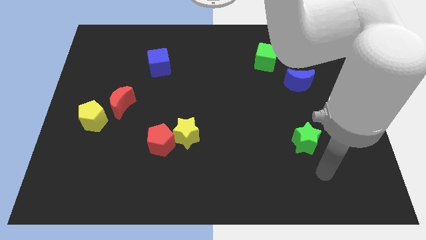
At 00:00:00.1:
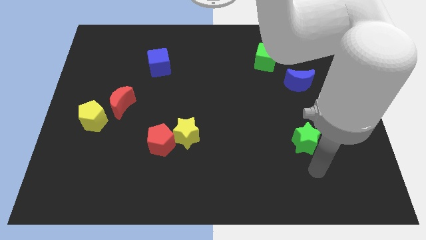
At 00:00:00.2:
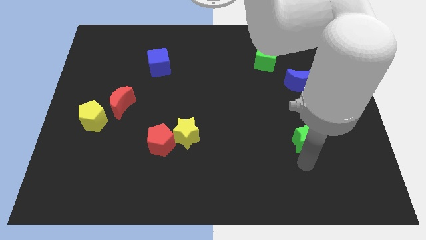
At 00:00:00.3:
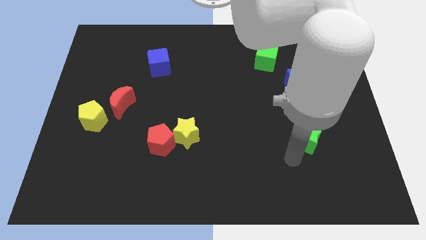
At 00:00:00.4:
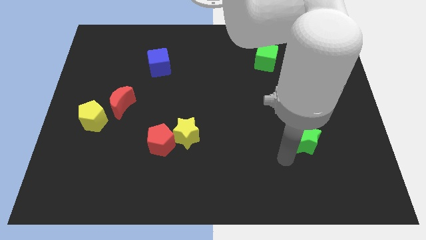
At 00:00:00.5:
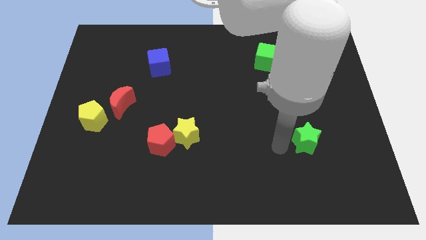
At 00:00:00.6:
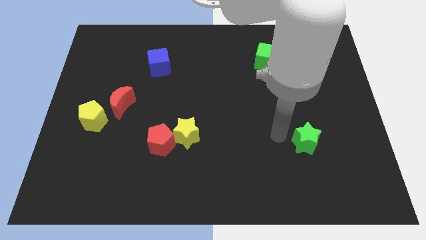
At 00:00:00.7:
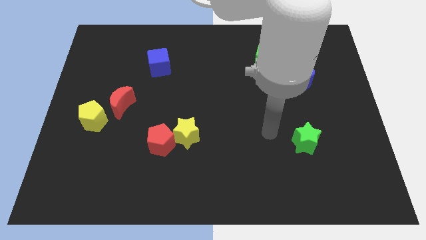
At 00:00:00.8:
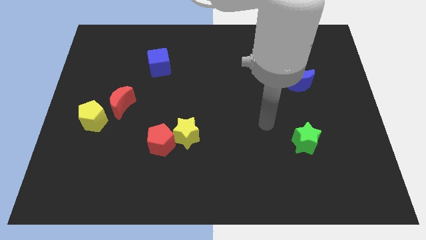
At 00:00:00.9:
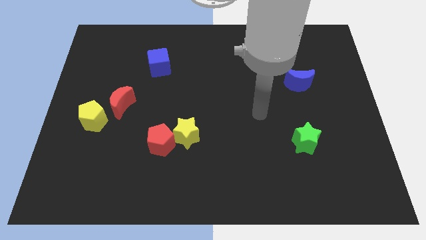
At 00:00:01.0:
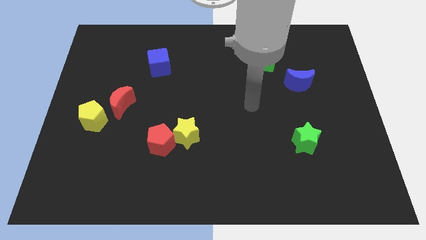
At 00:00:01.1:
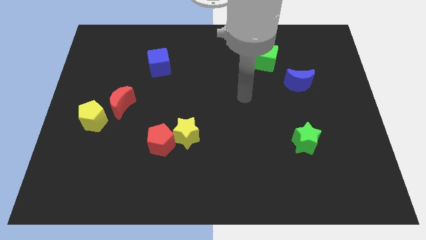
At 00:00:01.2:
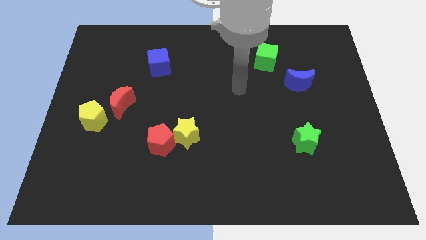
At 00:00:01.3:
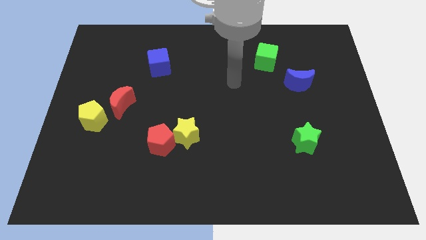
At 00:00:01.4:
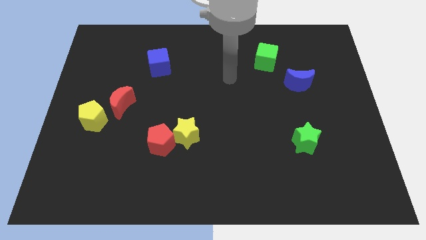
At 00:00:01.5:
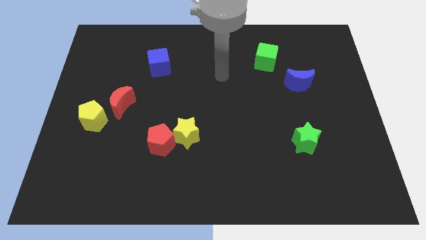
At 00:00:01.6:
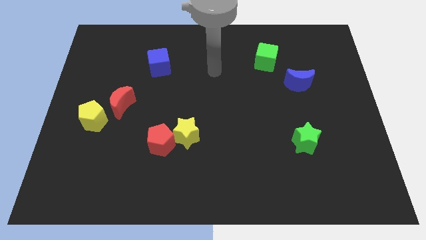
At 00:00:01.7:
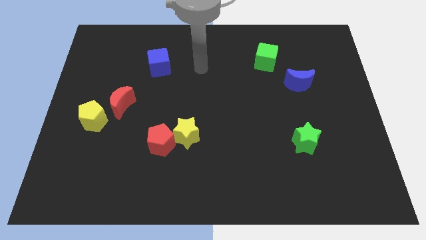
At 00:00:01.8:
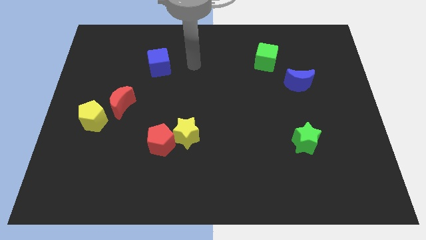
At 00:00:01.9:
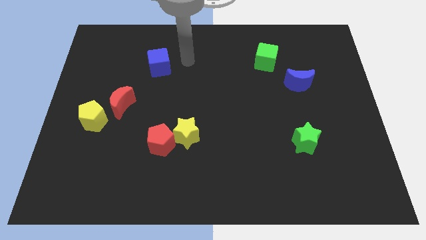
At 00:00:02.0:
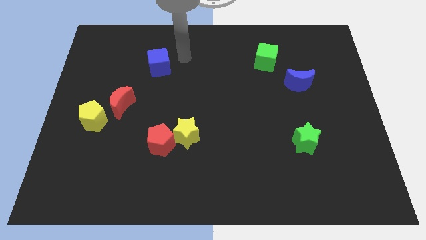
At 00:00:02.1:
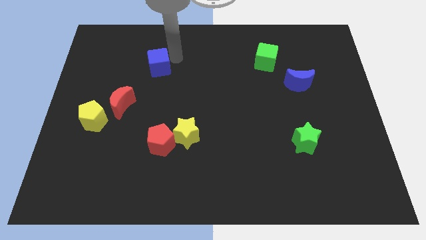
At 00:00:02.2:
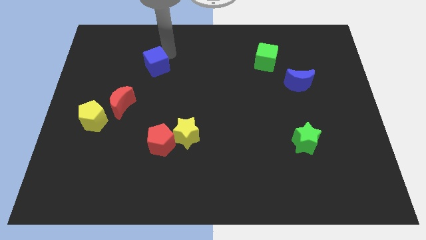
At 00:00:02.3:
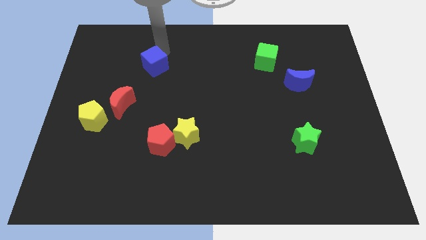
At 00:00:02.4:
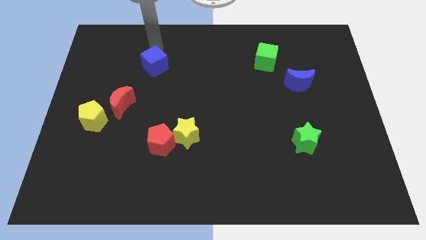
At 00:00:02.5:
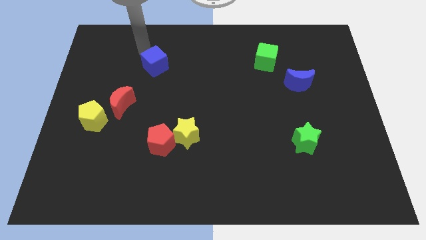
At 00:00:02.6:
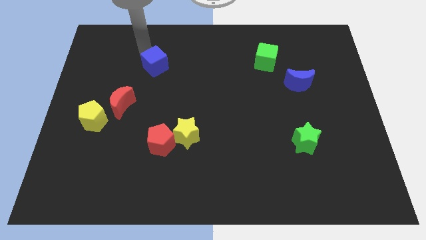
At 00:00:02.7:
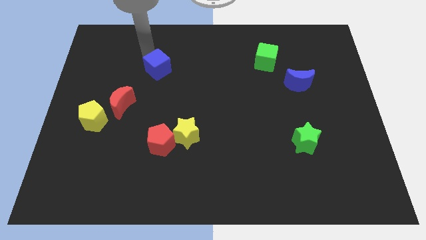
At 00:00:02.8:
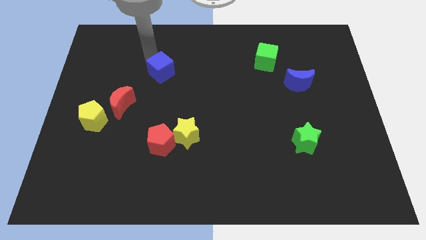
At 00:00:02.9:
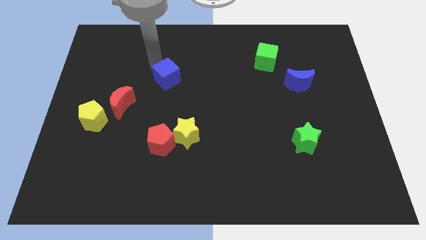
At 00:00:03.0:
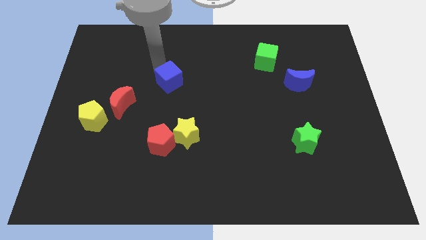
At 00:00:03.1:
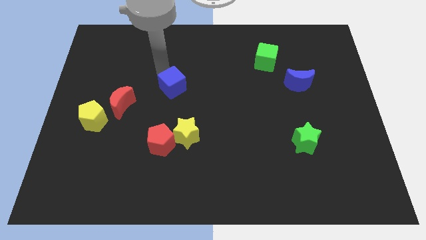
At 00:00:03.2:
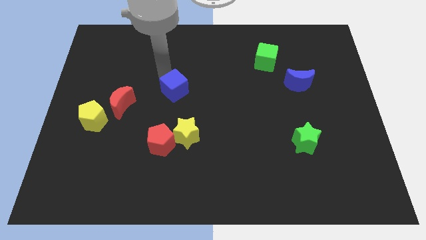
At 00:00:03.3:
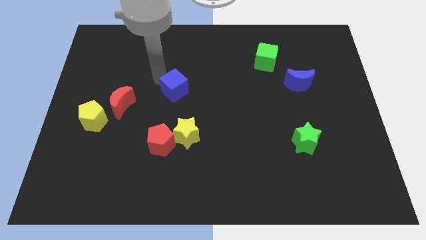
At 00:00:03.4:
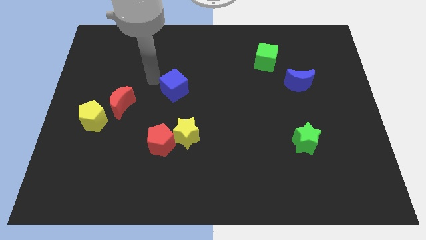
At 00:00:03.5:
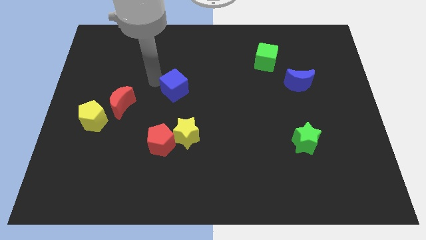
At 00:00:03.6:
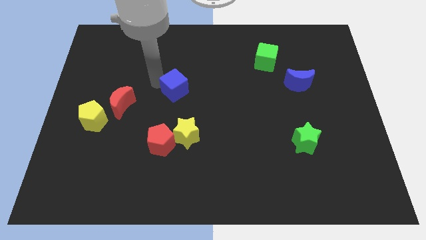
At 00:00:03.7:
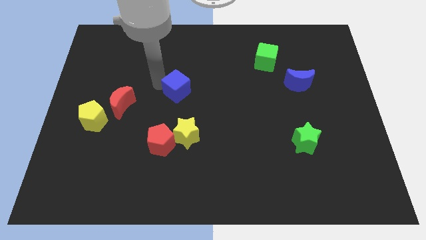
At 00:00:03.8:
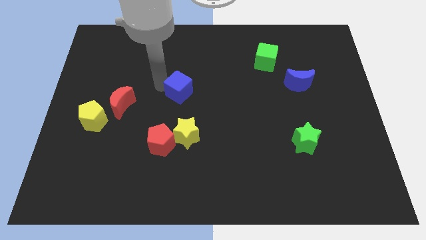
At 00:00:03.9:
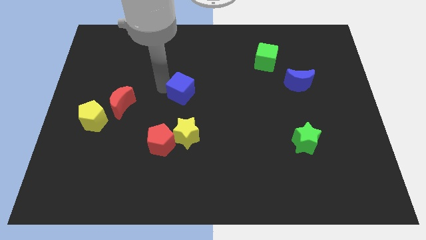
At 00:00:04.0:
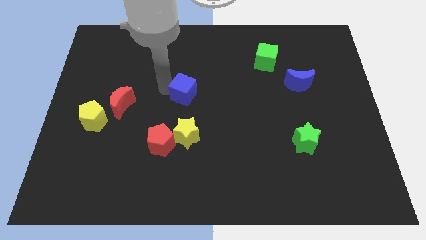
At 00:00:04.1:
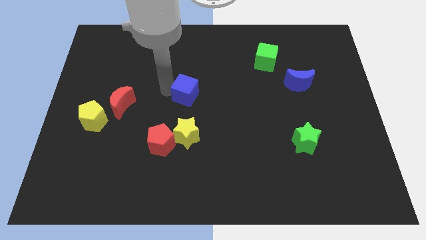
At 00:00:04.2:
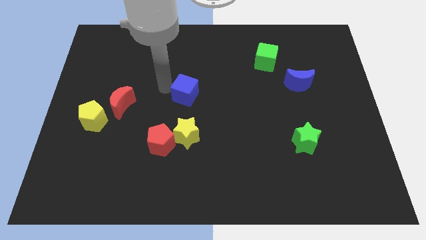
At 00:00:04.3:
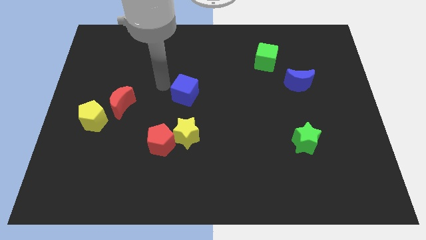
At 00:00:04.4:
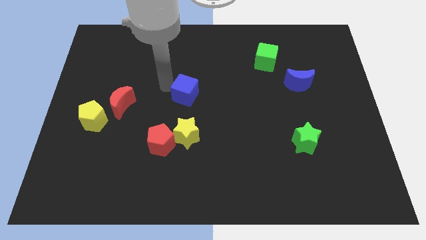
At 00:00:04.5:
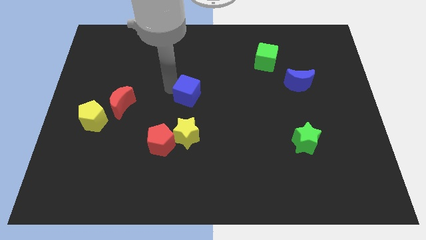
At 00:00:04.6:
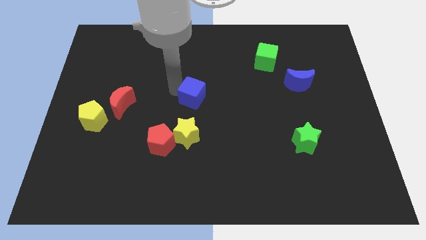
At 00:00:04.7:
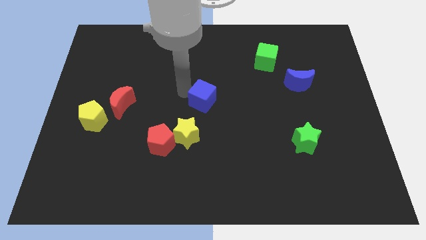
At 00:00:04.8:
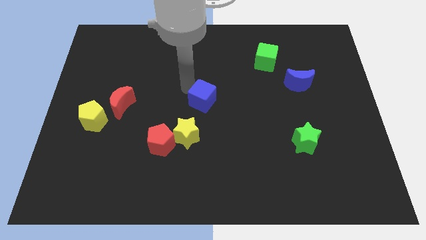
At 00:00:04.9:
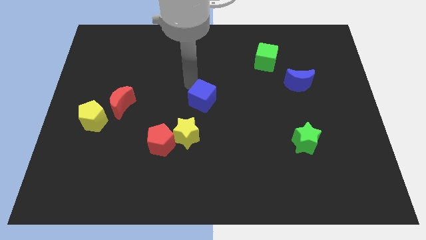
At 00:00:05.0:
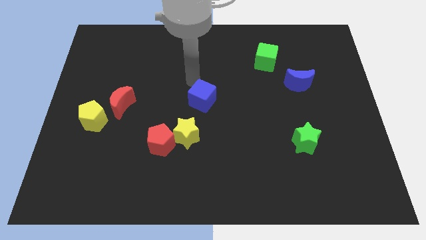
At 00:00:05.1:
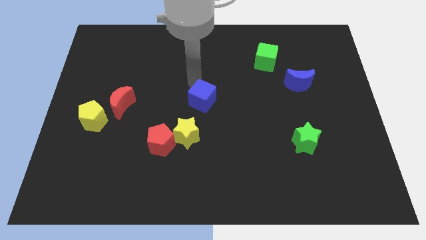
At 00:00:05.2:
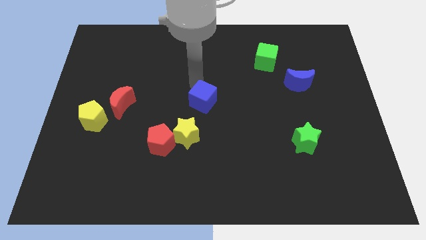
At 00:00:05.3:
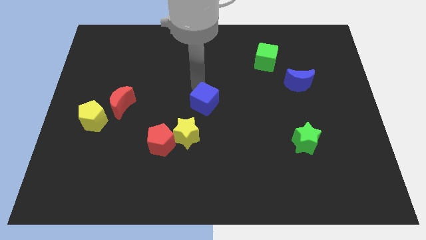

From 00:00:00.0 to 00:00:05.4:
move the blue cube to the top right side of the yellow star

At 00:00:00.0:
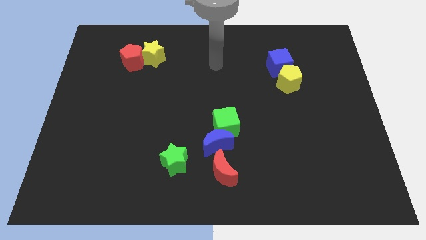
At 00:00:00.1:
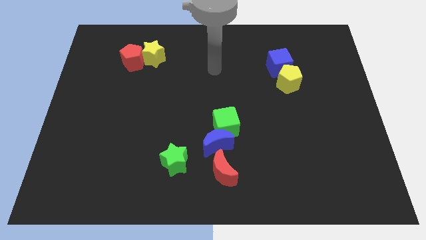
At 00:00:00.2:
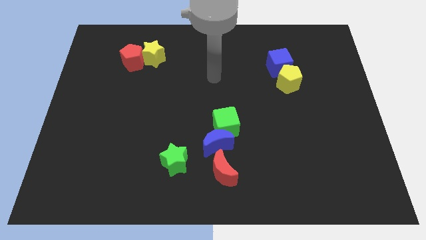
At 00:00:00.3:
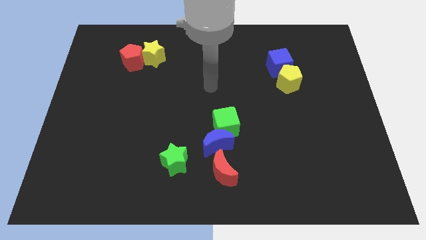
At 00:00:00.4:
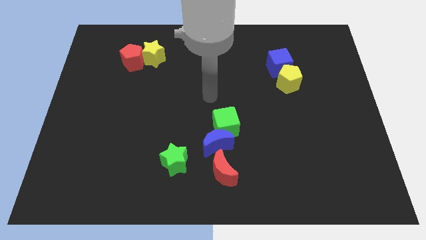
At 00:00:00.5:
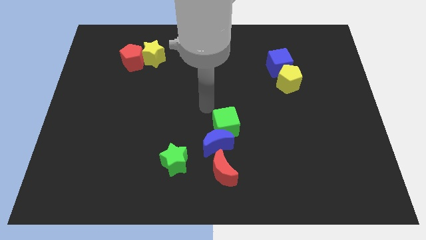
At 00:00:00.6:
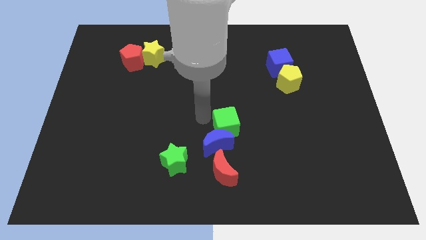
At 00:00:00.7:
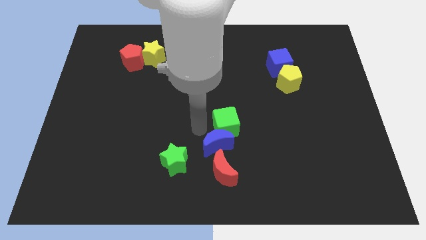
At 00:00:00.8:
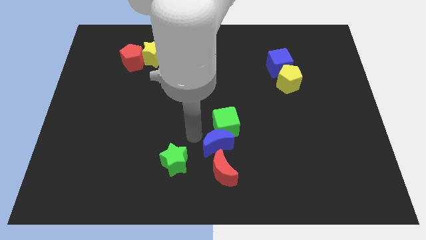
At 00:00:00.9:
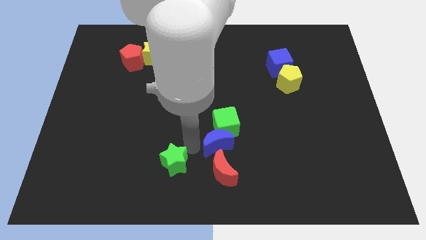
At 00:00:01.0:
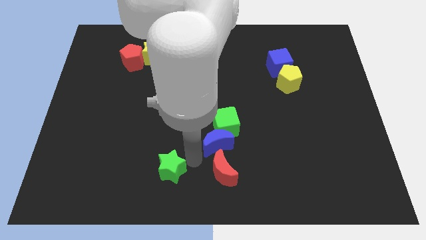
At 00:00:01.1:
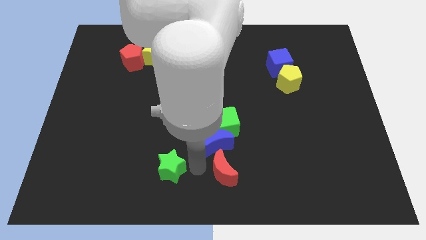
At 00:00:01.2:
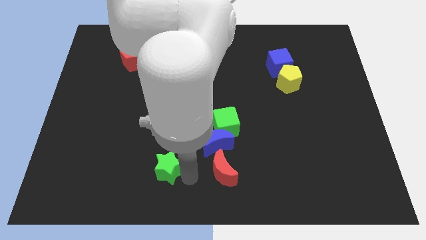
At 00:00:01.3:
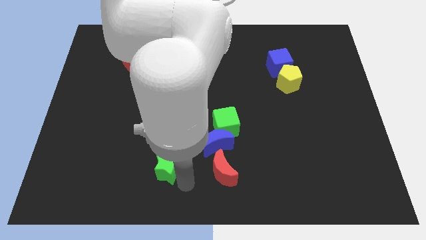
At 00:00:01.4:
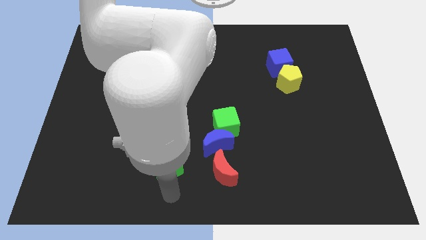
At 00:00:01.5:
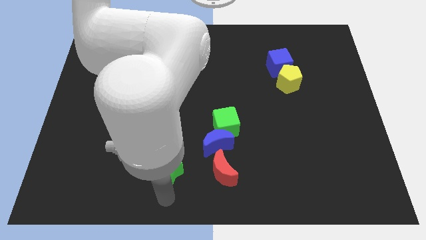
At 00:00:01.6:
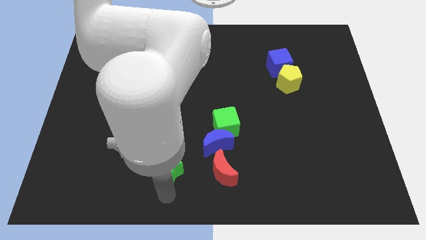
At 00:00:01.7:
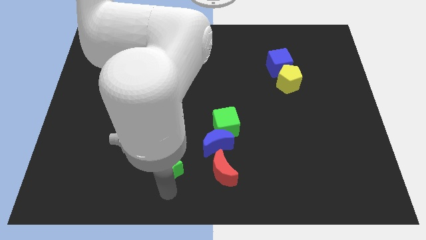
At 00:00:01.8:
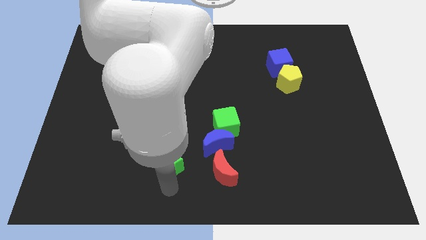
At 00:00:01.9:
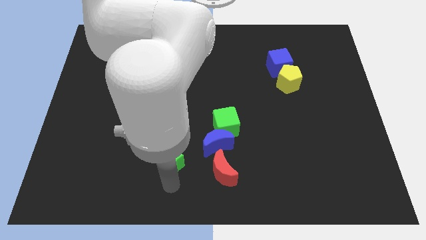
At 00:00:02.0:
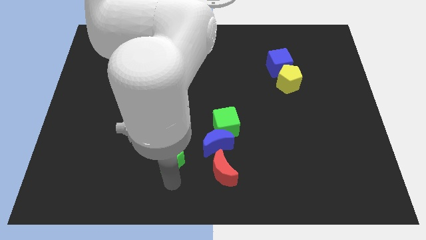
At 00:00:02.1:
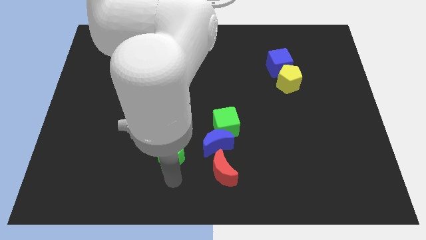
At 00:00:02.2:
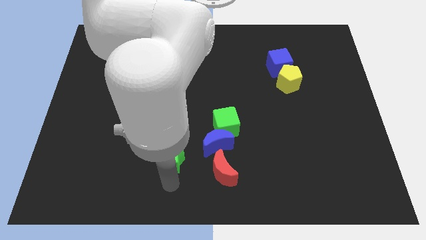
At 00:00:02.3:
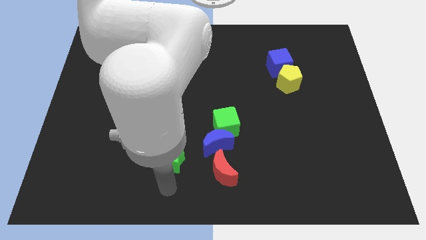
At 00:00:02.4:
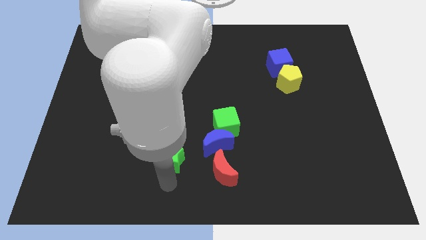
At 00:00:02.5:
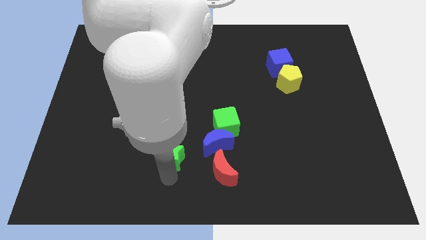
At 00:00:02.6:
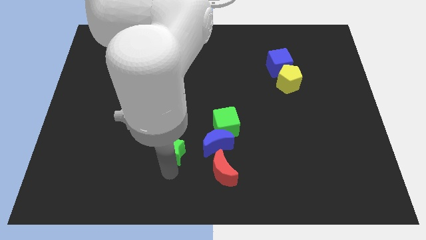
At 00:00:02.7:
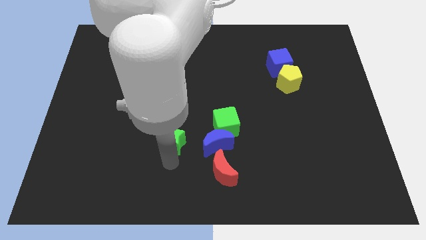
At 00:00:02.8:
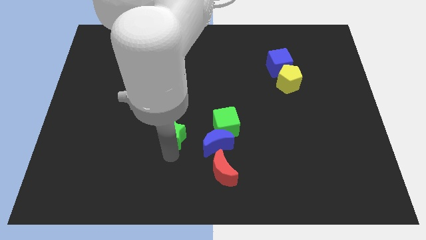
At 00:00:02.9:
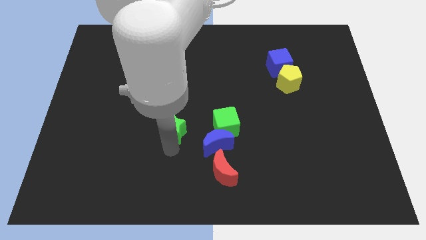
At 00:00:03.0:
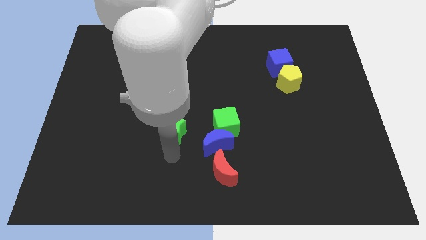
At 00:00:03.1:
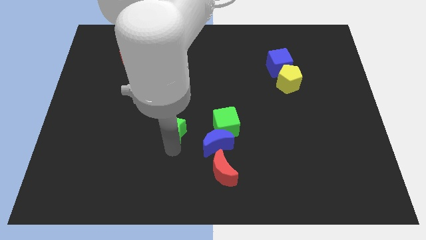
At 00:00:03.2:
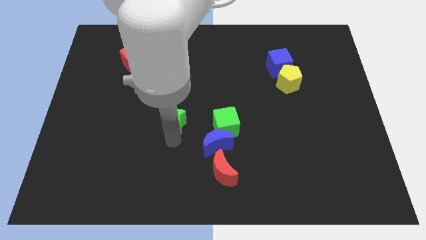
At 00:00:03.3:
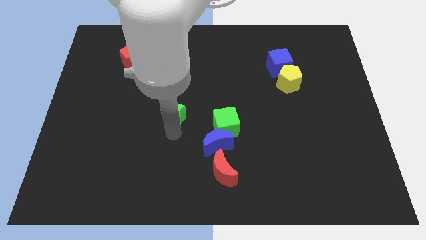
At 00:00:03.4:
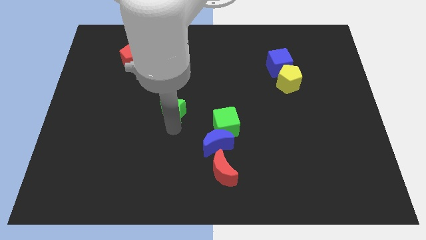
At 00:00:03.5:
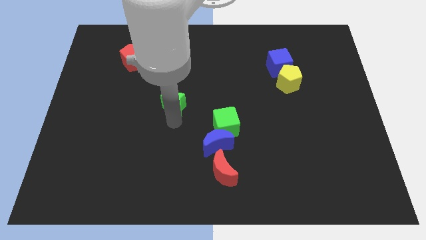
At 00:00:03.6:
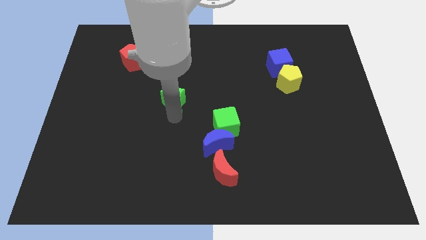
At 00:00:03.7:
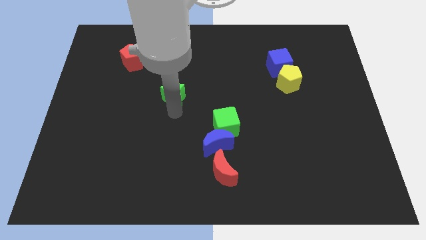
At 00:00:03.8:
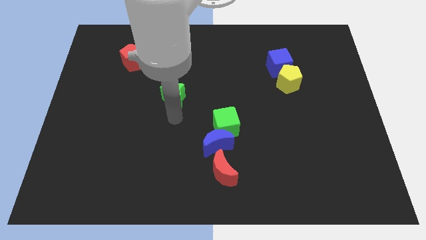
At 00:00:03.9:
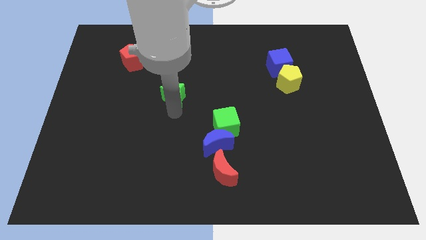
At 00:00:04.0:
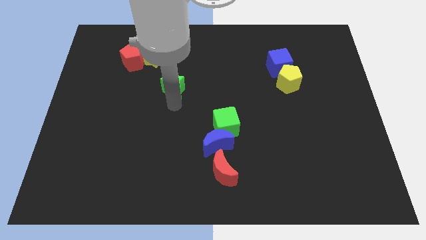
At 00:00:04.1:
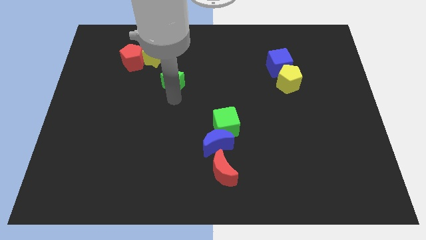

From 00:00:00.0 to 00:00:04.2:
push the green star to the bottom right of the yellow star
